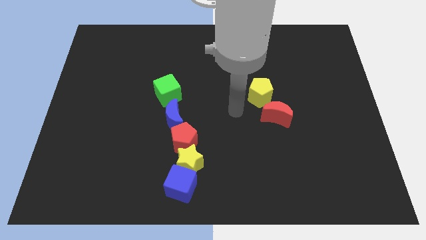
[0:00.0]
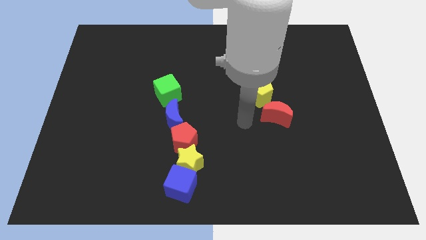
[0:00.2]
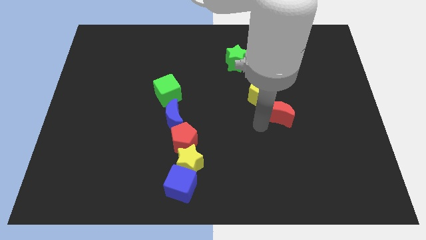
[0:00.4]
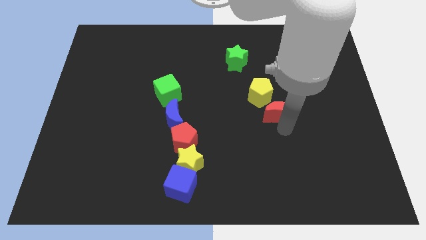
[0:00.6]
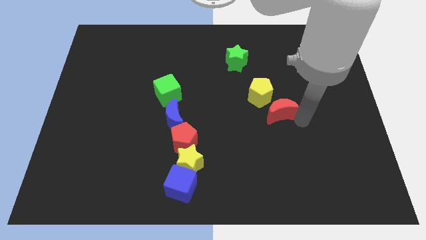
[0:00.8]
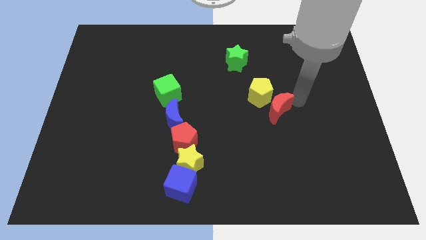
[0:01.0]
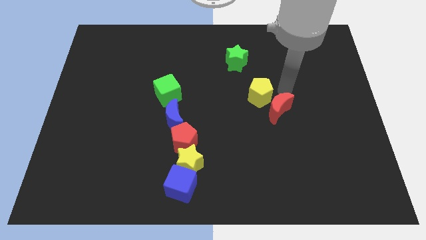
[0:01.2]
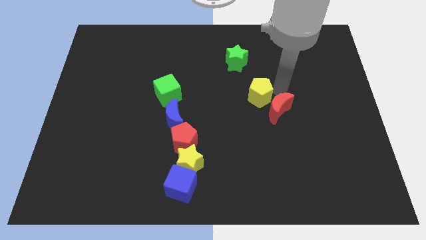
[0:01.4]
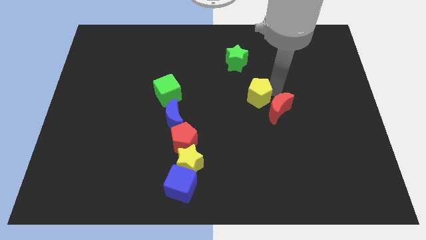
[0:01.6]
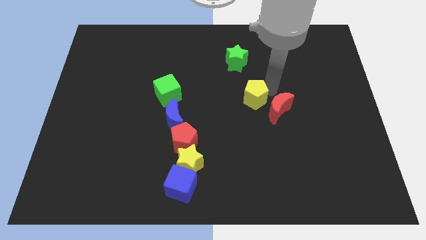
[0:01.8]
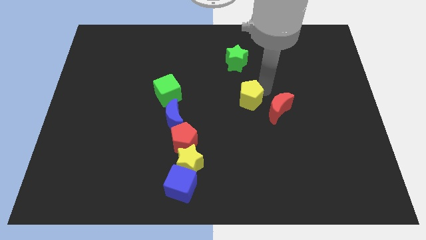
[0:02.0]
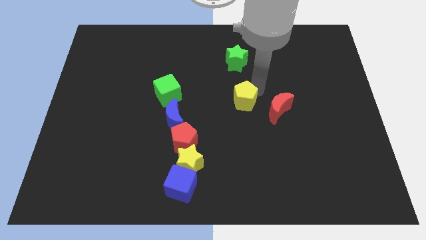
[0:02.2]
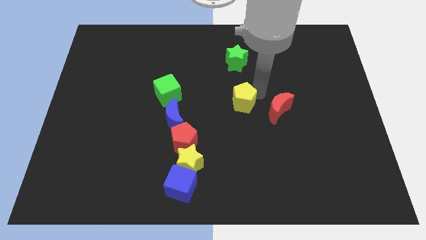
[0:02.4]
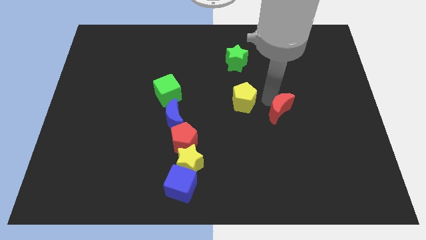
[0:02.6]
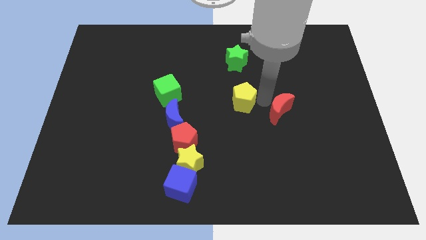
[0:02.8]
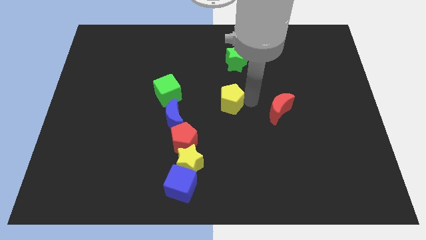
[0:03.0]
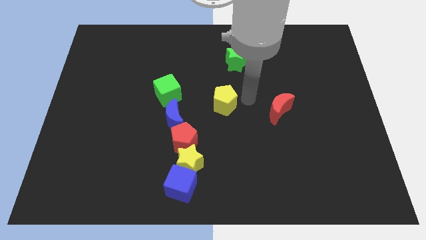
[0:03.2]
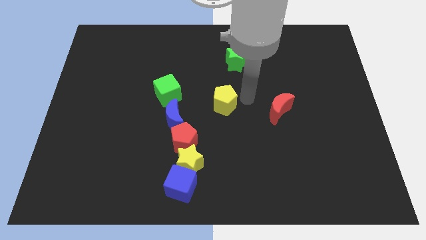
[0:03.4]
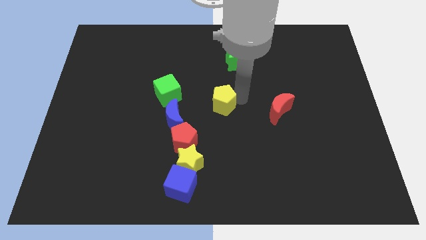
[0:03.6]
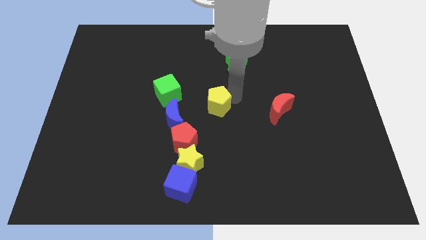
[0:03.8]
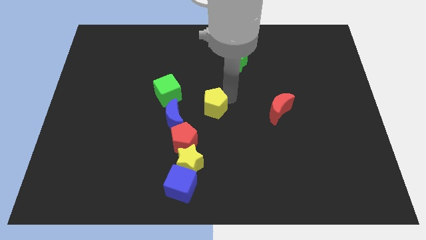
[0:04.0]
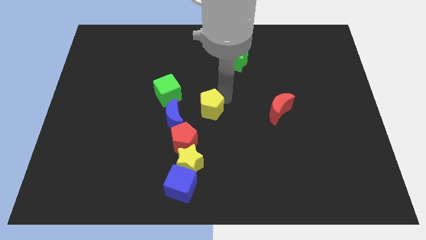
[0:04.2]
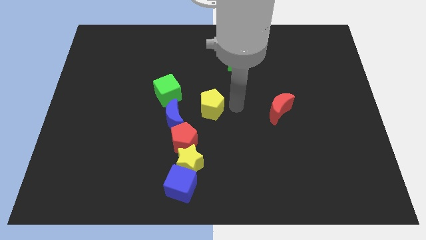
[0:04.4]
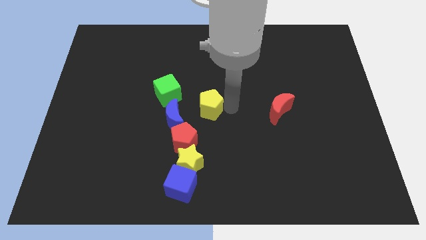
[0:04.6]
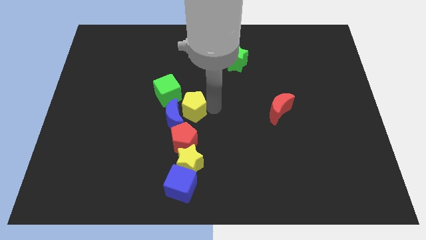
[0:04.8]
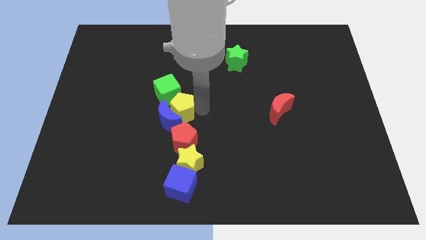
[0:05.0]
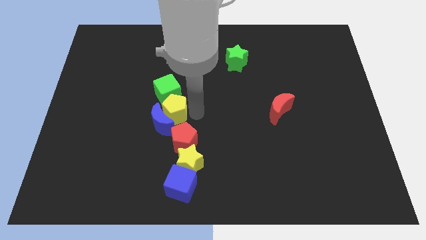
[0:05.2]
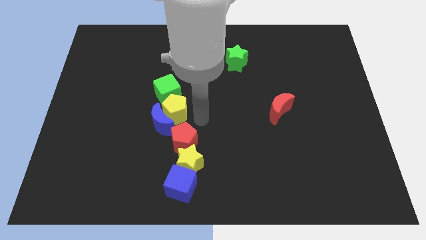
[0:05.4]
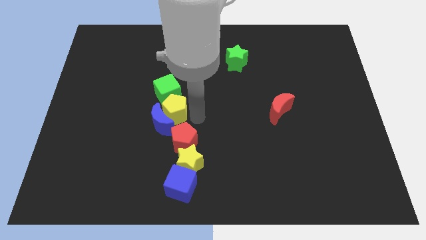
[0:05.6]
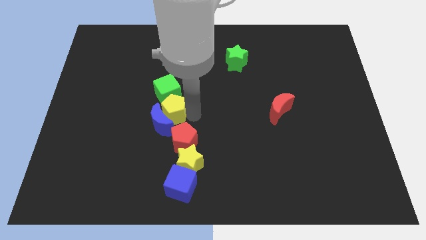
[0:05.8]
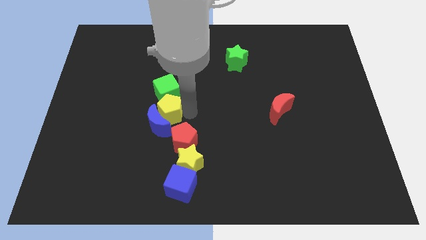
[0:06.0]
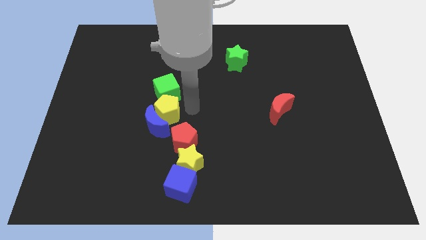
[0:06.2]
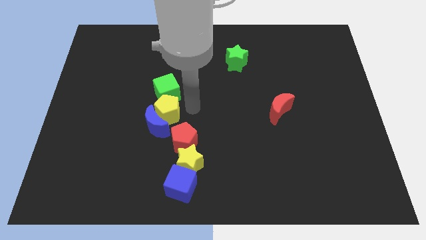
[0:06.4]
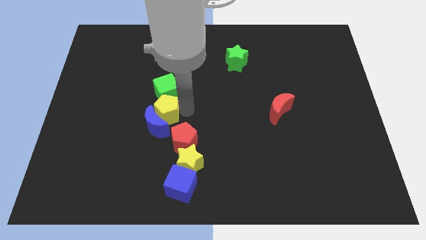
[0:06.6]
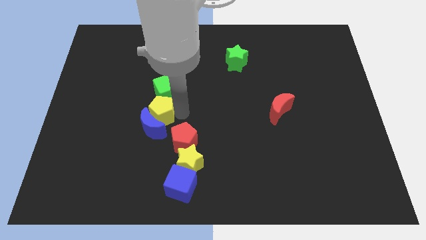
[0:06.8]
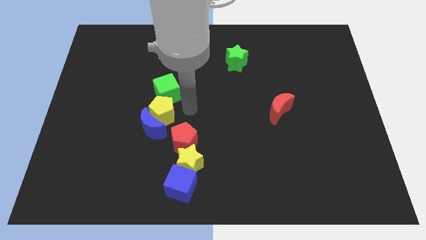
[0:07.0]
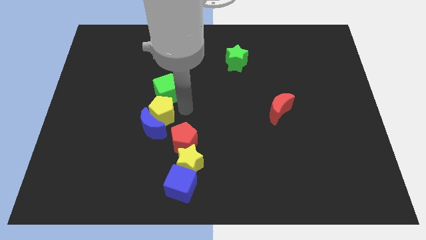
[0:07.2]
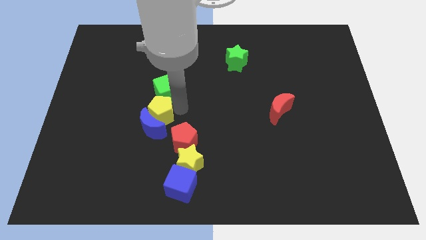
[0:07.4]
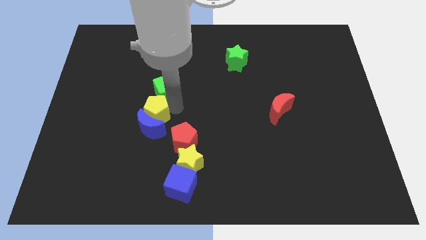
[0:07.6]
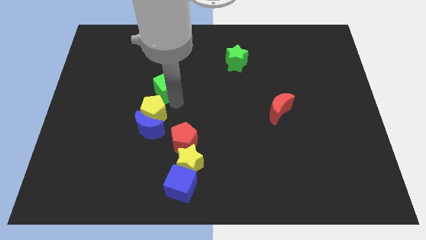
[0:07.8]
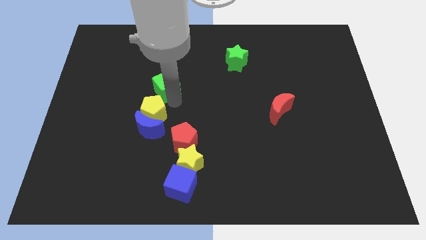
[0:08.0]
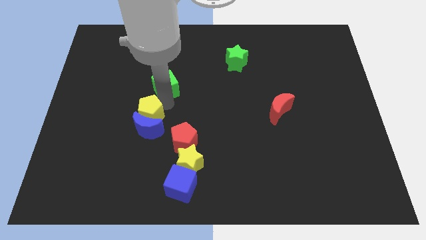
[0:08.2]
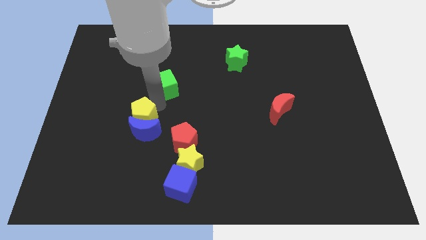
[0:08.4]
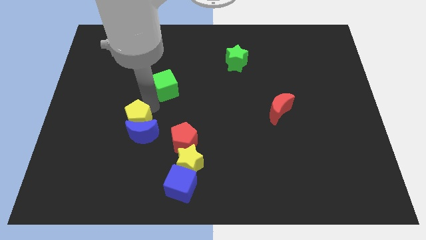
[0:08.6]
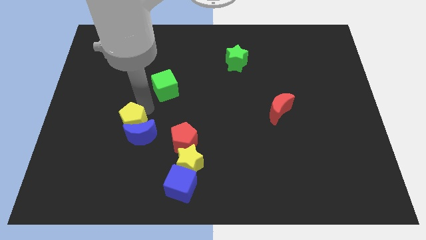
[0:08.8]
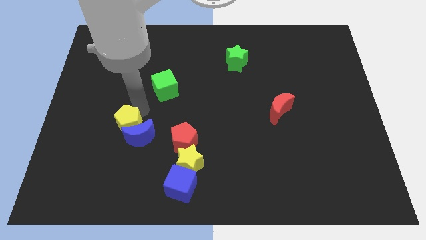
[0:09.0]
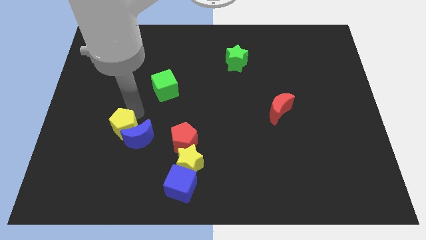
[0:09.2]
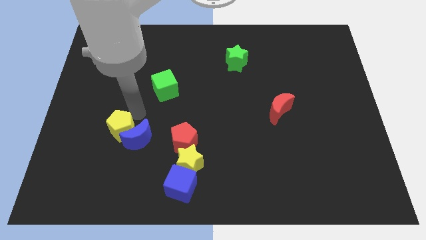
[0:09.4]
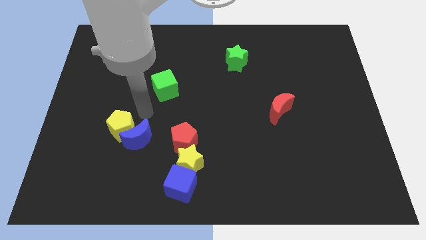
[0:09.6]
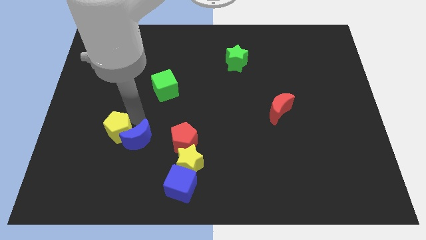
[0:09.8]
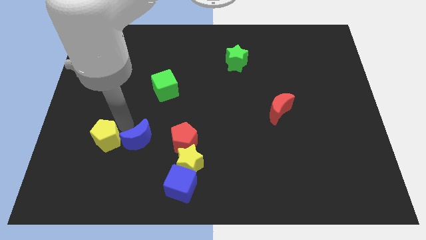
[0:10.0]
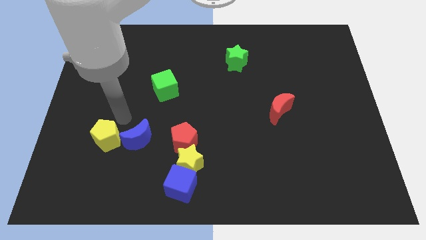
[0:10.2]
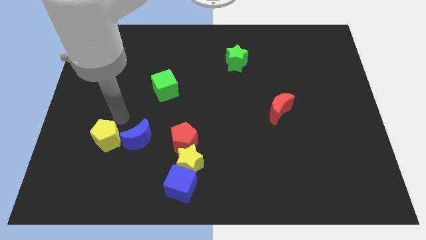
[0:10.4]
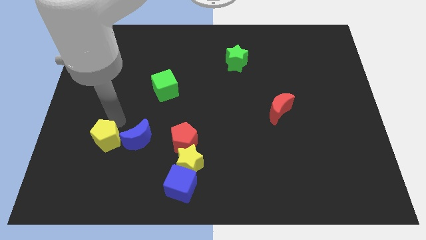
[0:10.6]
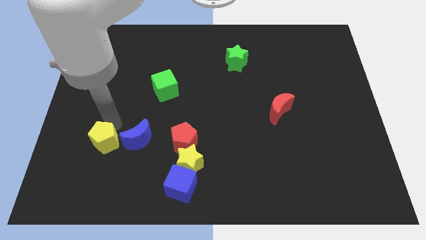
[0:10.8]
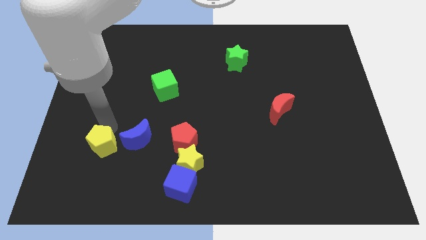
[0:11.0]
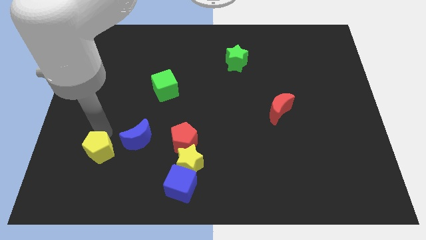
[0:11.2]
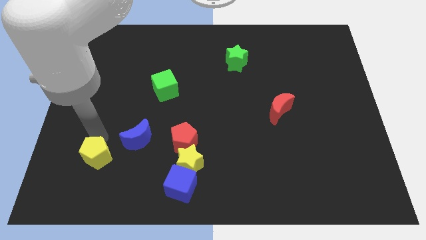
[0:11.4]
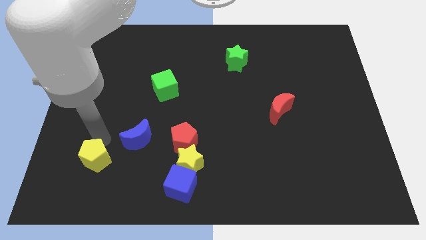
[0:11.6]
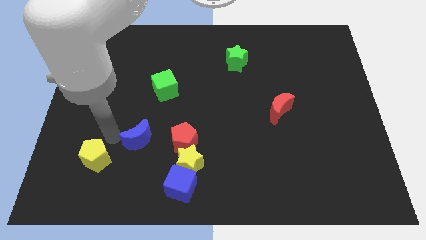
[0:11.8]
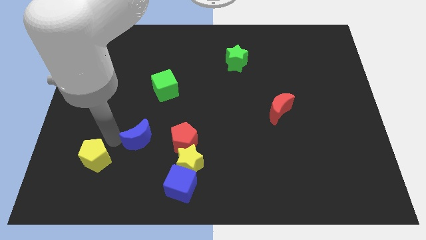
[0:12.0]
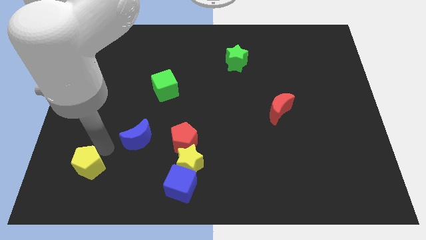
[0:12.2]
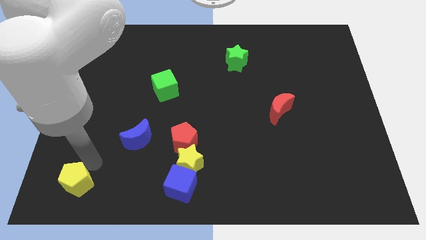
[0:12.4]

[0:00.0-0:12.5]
move the yellow pentagon to the lower left corner
